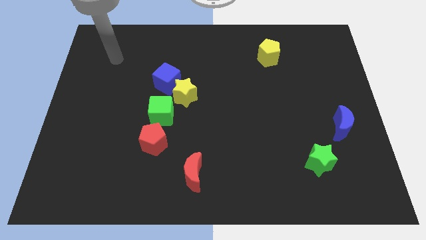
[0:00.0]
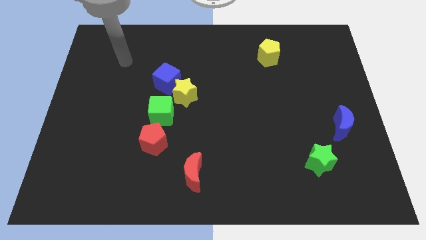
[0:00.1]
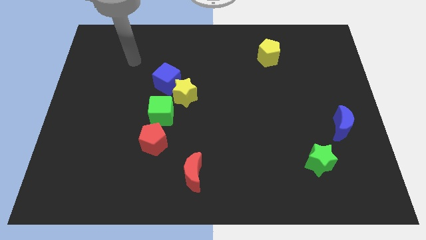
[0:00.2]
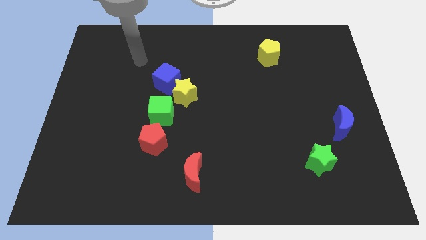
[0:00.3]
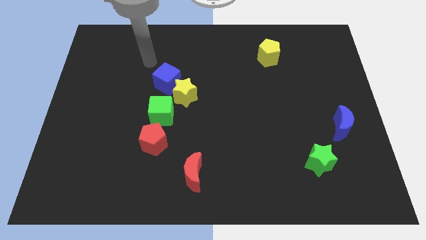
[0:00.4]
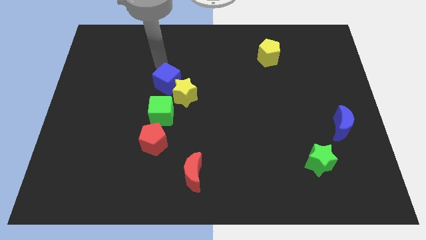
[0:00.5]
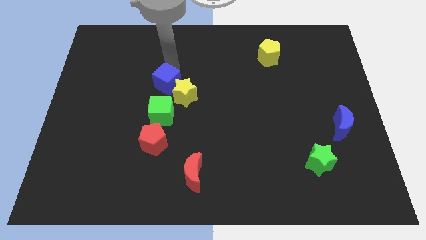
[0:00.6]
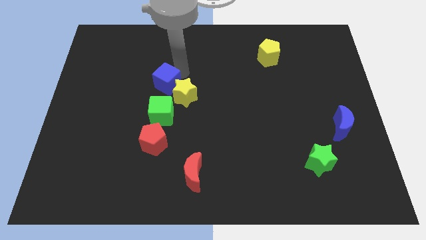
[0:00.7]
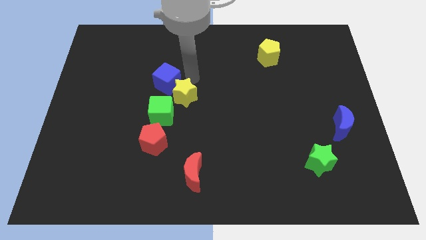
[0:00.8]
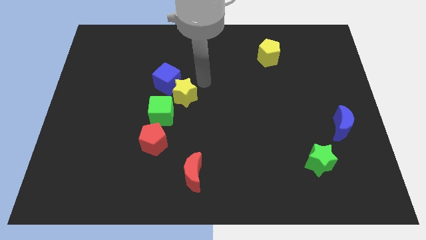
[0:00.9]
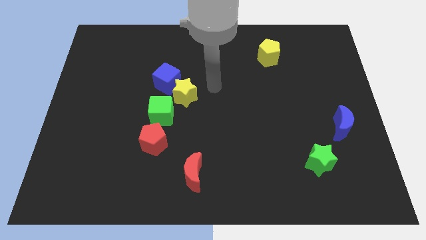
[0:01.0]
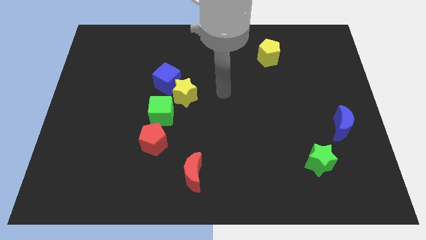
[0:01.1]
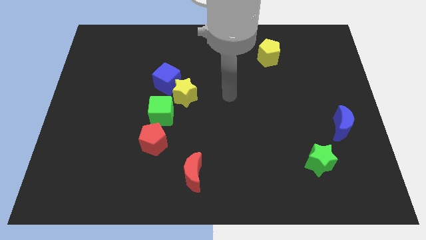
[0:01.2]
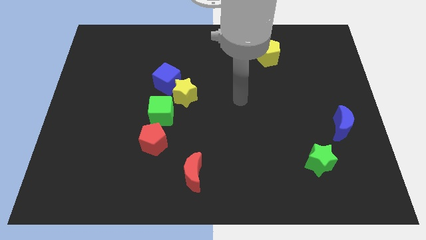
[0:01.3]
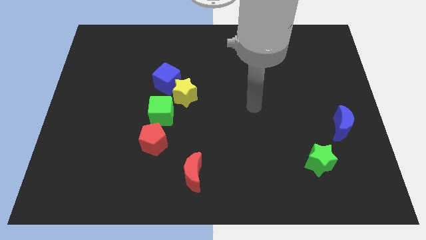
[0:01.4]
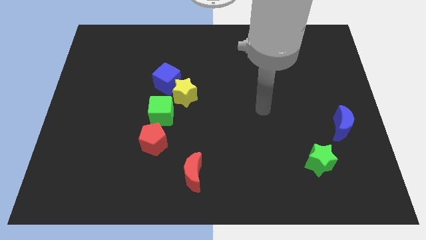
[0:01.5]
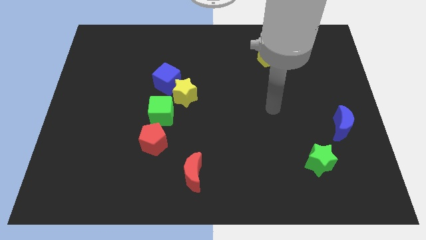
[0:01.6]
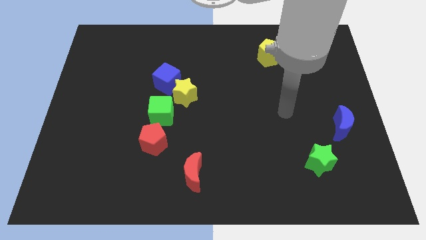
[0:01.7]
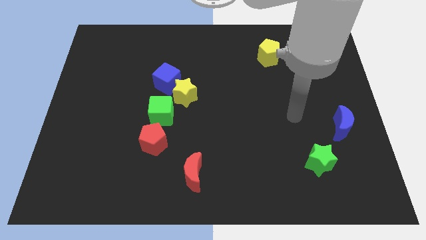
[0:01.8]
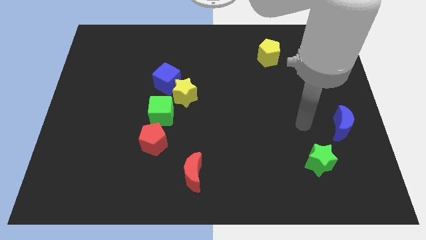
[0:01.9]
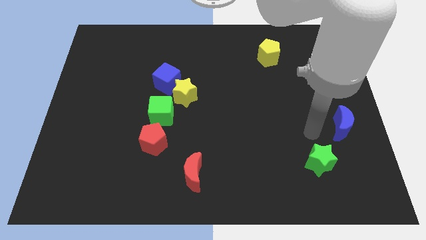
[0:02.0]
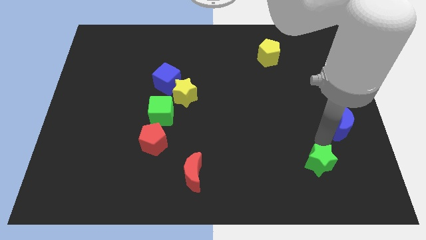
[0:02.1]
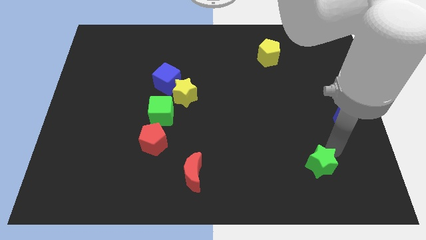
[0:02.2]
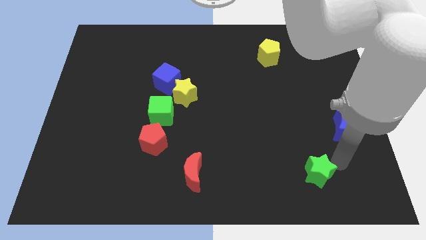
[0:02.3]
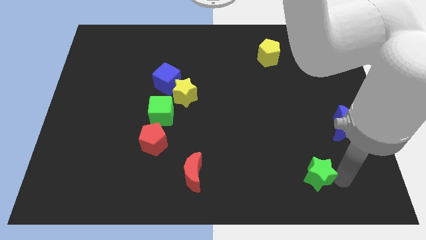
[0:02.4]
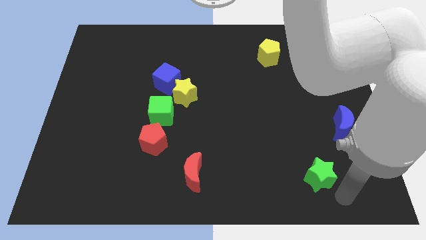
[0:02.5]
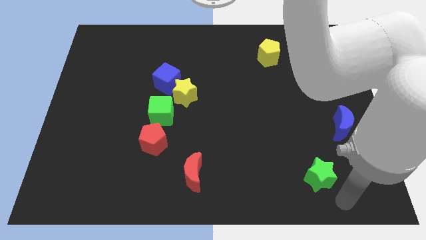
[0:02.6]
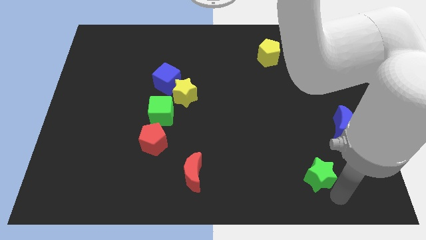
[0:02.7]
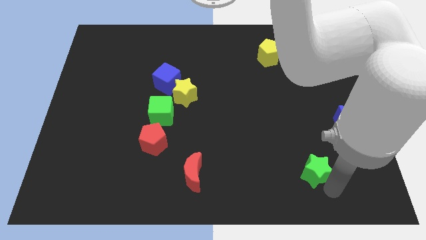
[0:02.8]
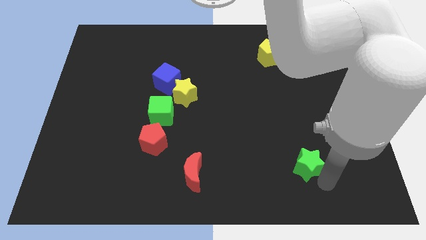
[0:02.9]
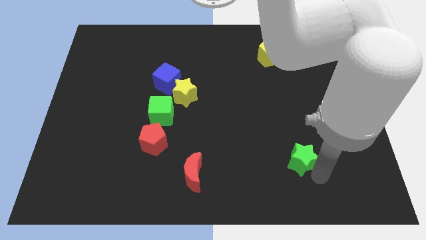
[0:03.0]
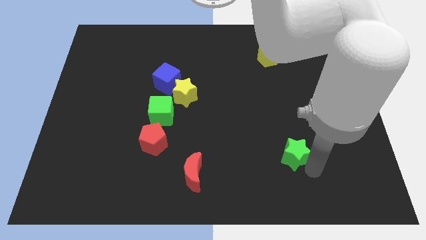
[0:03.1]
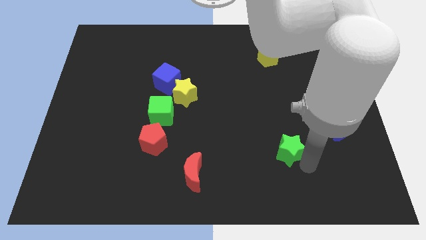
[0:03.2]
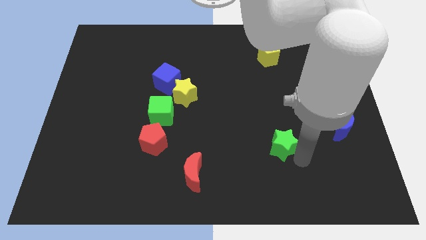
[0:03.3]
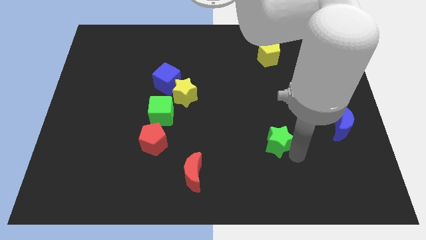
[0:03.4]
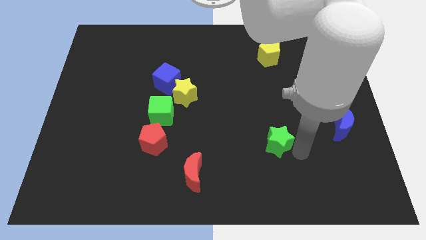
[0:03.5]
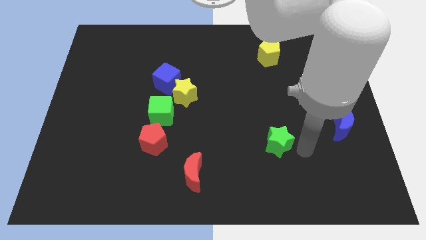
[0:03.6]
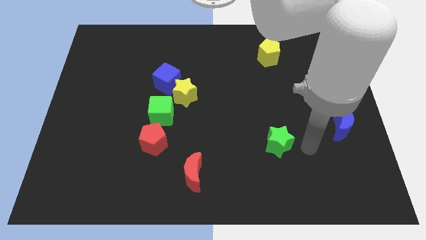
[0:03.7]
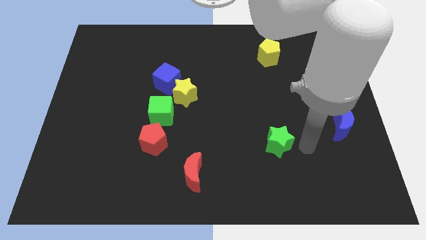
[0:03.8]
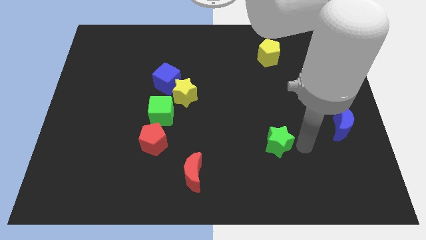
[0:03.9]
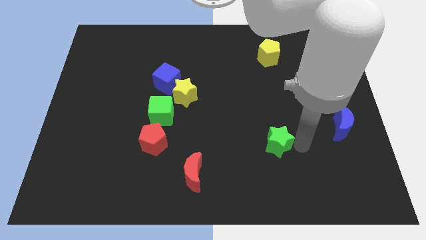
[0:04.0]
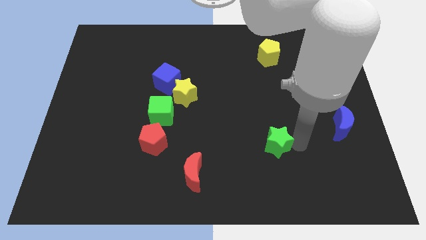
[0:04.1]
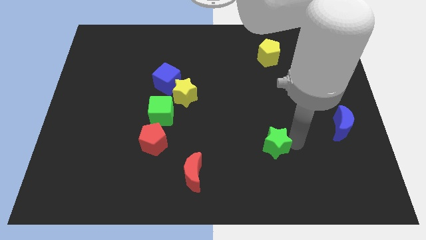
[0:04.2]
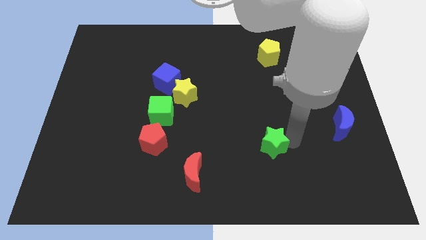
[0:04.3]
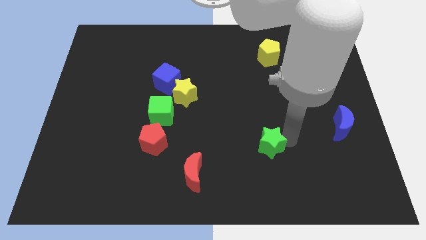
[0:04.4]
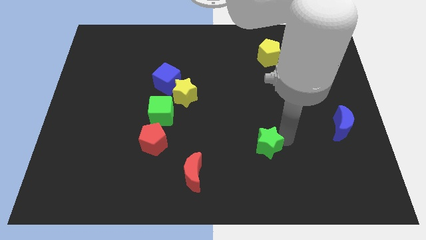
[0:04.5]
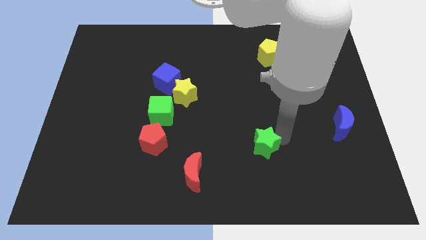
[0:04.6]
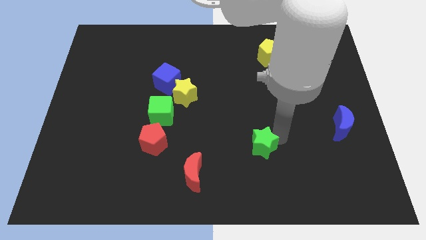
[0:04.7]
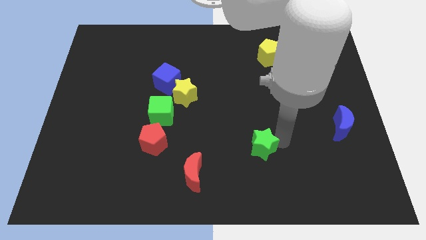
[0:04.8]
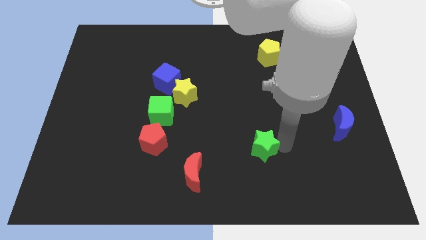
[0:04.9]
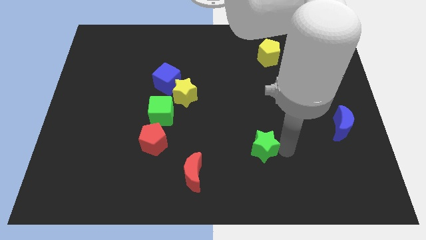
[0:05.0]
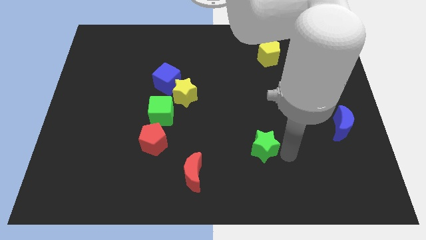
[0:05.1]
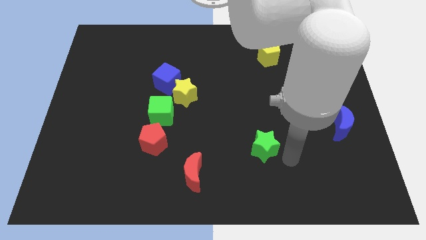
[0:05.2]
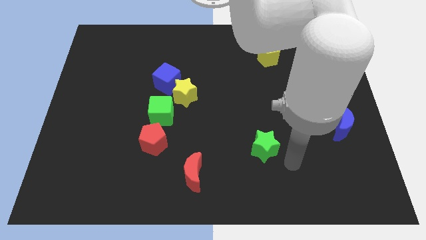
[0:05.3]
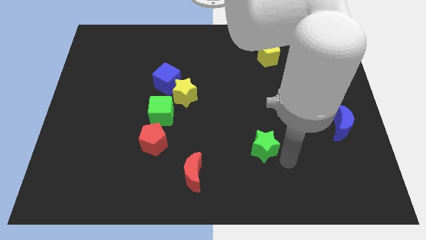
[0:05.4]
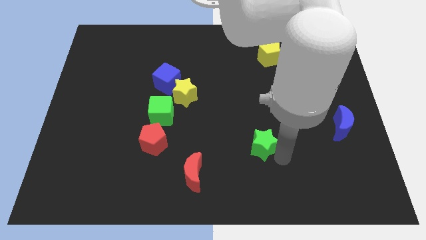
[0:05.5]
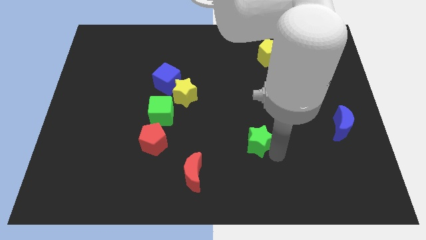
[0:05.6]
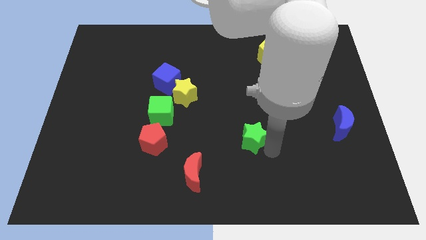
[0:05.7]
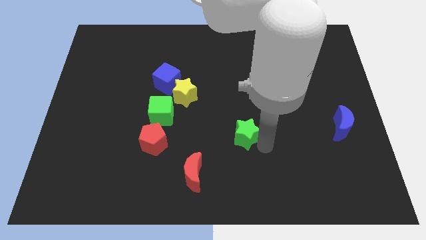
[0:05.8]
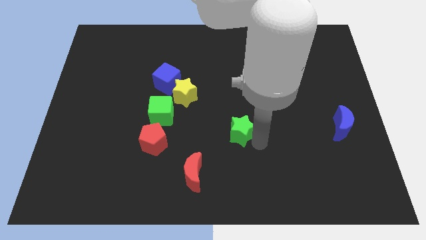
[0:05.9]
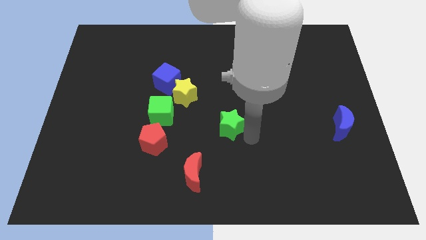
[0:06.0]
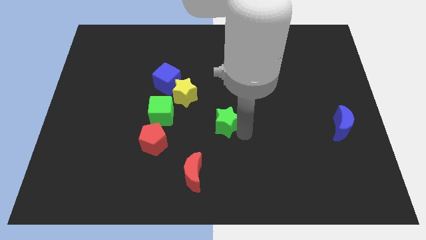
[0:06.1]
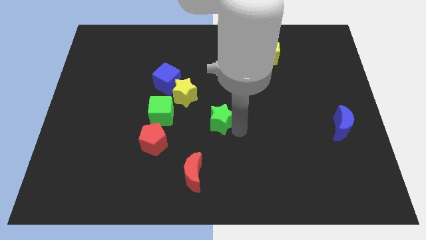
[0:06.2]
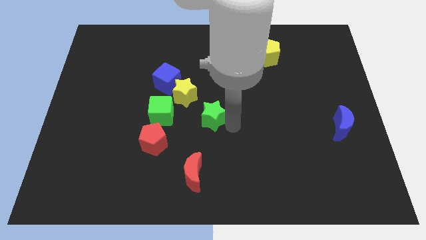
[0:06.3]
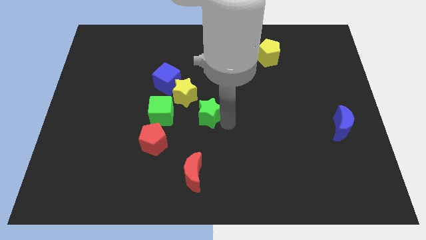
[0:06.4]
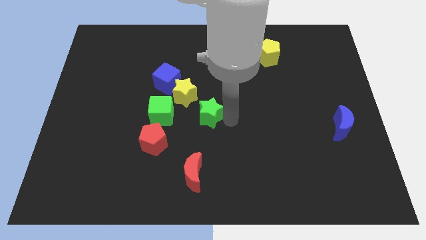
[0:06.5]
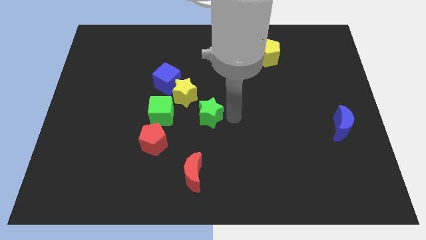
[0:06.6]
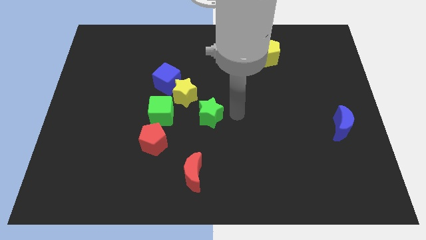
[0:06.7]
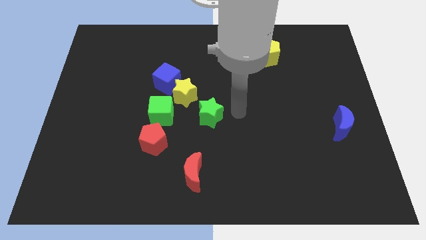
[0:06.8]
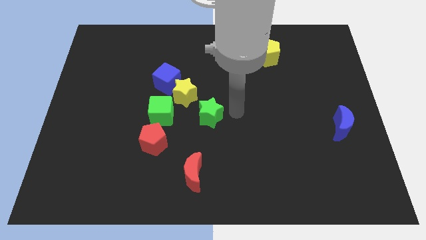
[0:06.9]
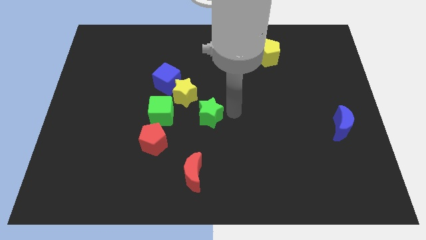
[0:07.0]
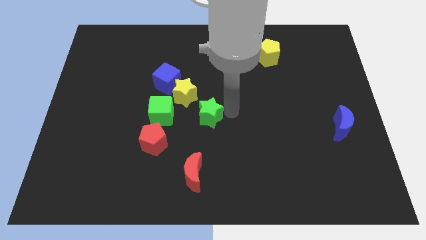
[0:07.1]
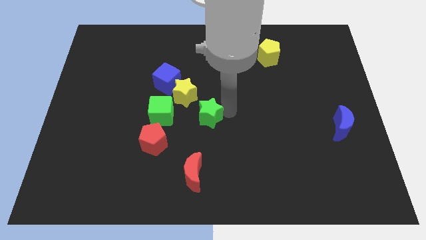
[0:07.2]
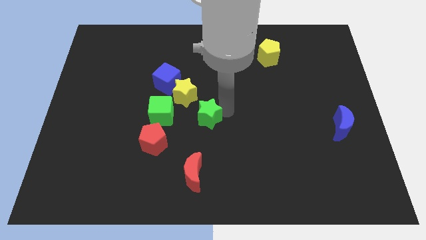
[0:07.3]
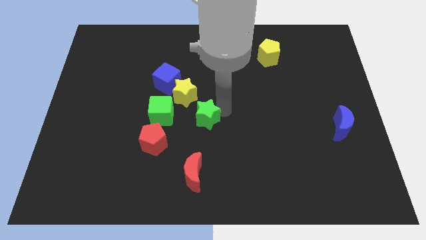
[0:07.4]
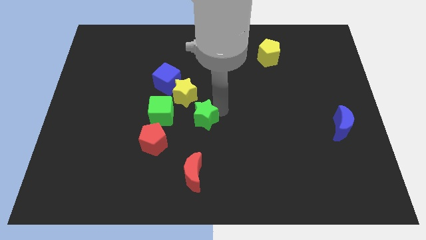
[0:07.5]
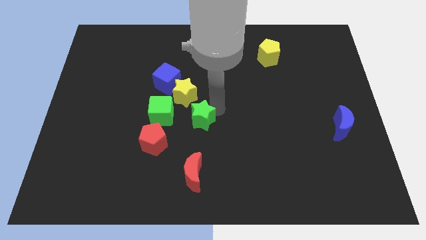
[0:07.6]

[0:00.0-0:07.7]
move the green star diagonally up and to the right of the red pentagon
